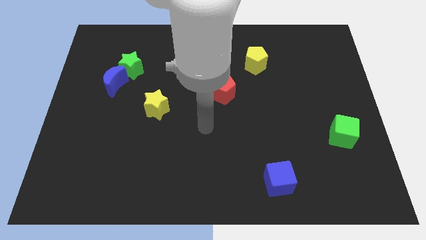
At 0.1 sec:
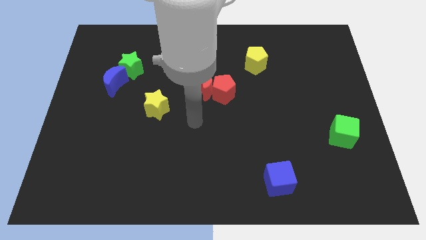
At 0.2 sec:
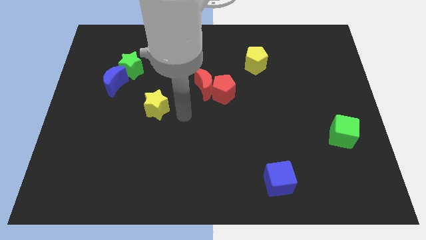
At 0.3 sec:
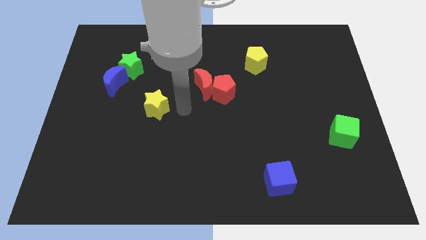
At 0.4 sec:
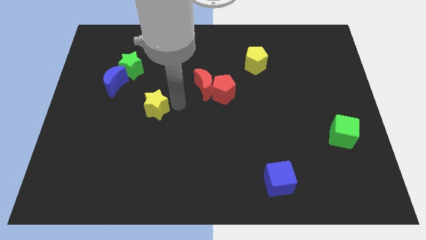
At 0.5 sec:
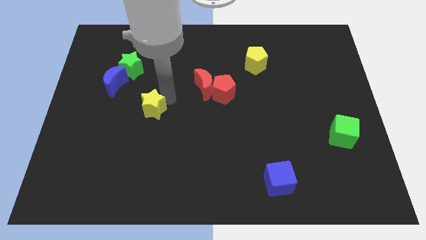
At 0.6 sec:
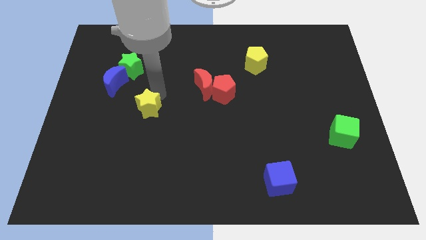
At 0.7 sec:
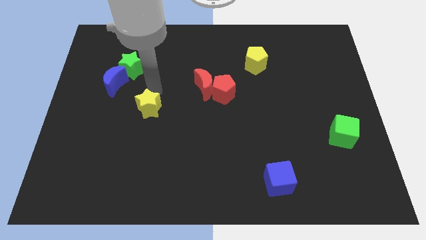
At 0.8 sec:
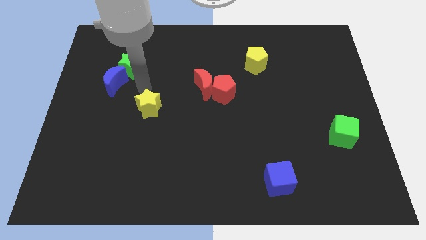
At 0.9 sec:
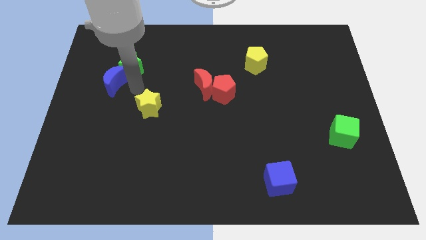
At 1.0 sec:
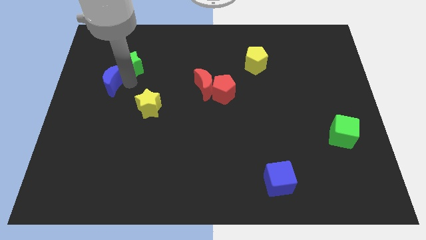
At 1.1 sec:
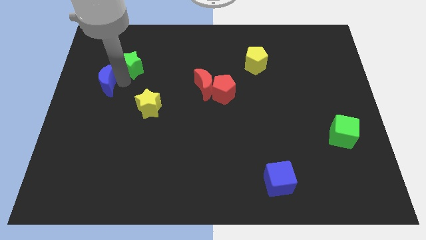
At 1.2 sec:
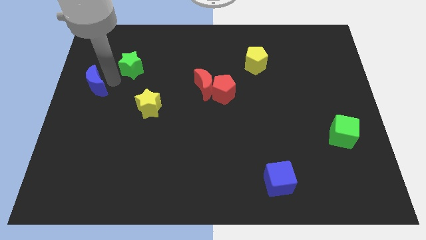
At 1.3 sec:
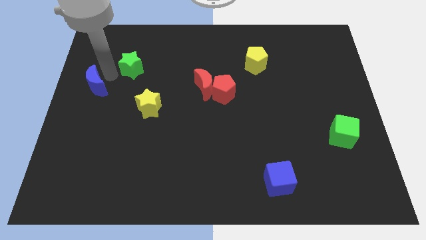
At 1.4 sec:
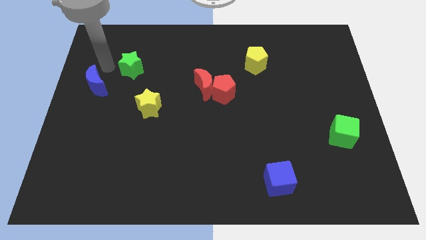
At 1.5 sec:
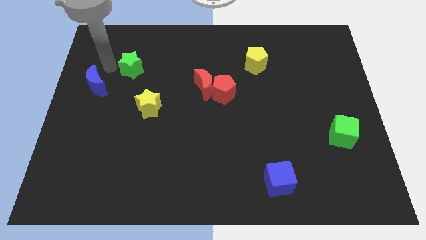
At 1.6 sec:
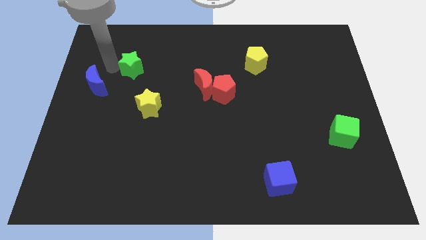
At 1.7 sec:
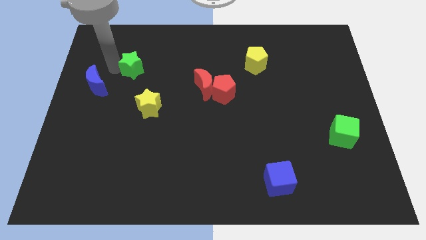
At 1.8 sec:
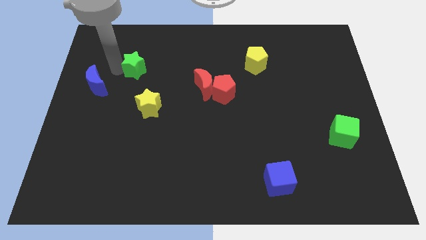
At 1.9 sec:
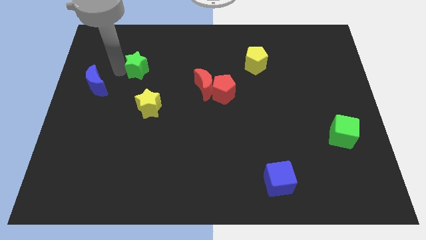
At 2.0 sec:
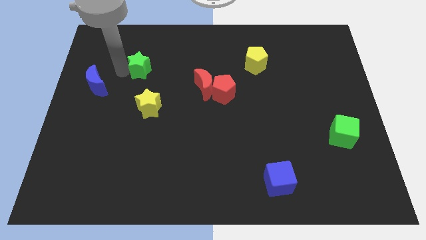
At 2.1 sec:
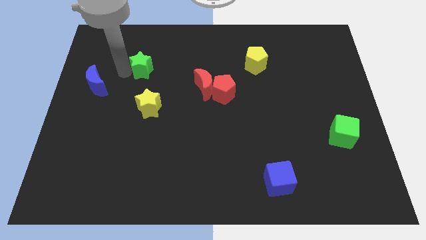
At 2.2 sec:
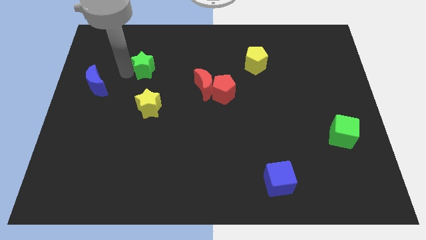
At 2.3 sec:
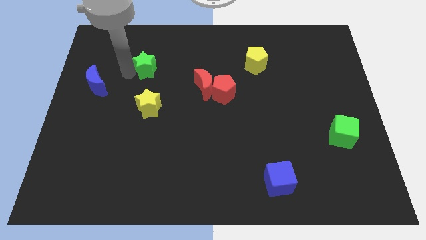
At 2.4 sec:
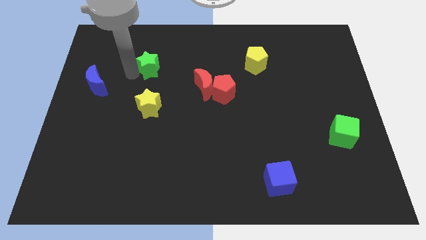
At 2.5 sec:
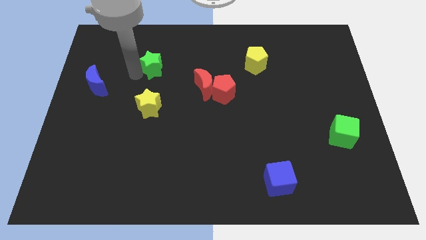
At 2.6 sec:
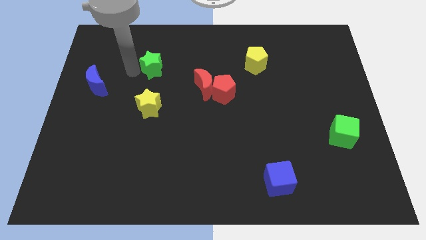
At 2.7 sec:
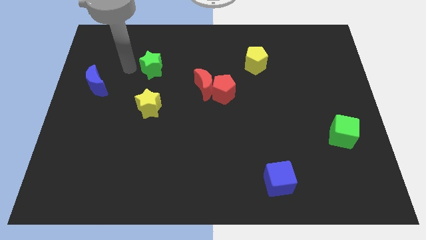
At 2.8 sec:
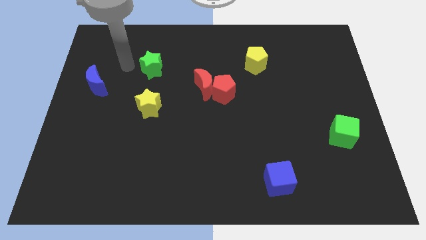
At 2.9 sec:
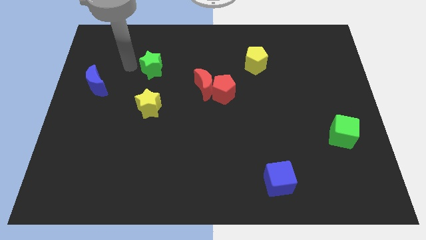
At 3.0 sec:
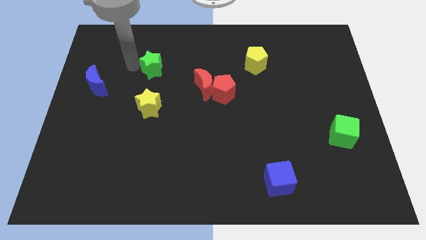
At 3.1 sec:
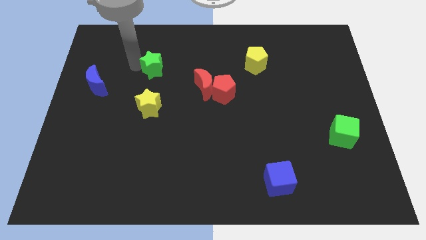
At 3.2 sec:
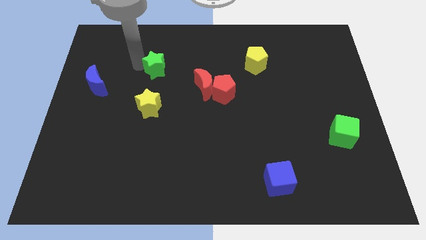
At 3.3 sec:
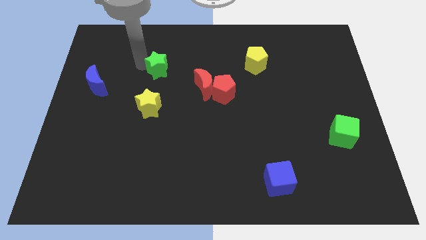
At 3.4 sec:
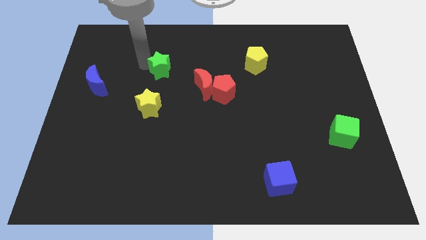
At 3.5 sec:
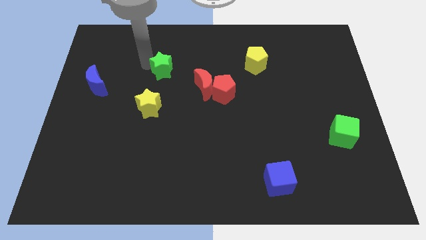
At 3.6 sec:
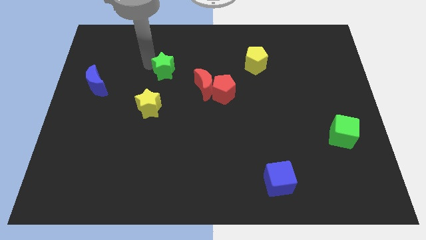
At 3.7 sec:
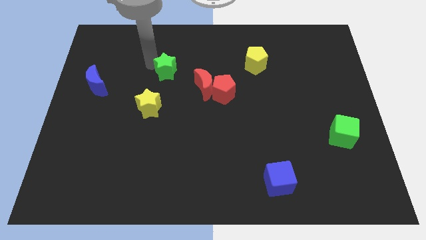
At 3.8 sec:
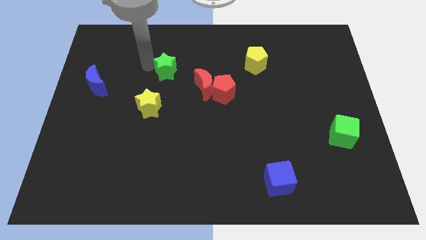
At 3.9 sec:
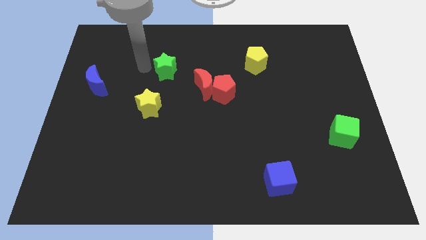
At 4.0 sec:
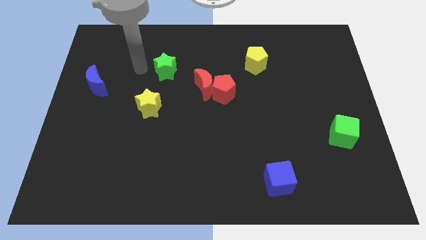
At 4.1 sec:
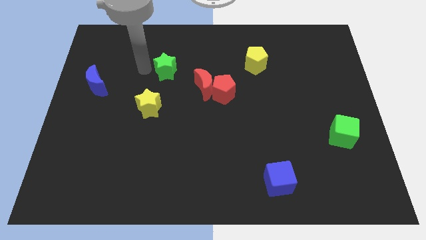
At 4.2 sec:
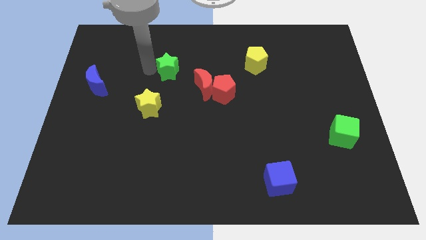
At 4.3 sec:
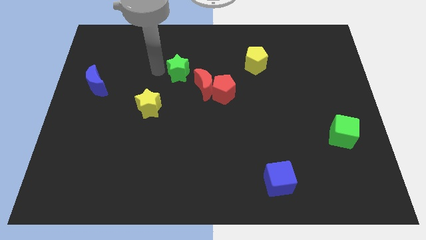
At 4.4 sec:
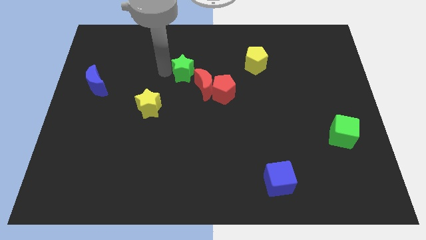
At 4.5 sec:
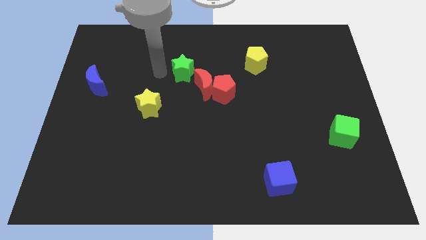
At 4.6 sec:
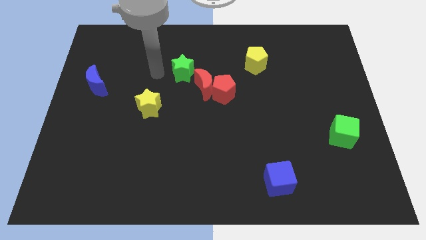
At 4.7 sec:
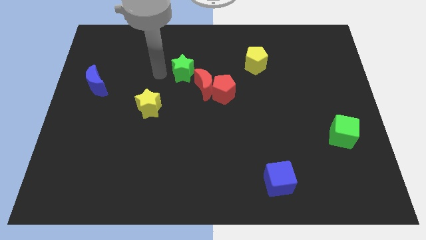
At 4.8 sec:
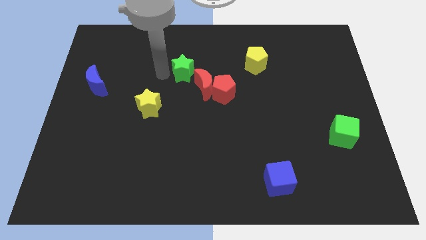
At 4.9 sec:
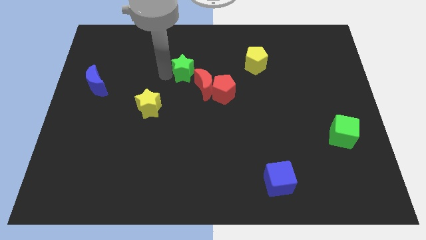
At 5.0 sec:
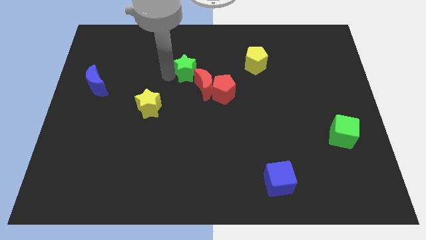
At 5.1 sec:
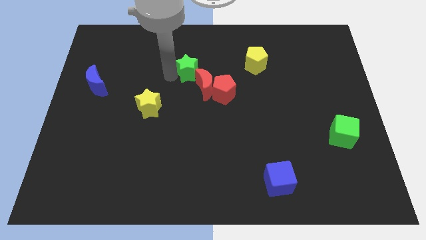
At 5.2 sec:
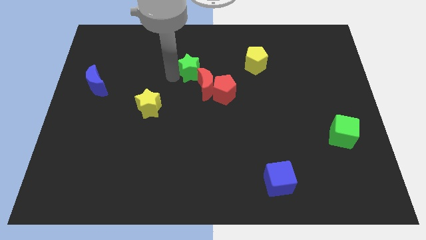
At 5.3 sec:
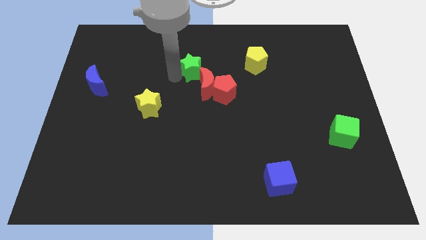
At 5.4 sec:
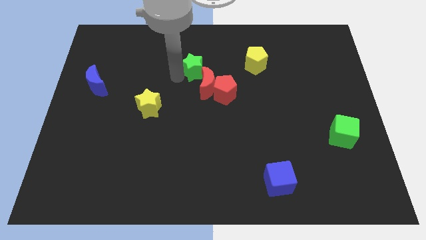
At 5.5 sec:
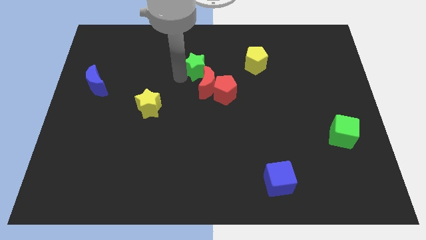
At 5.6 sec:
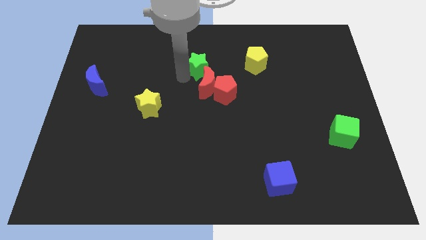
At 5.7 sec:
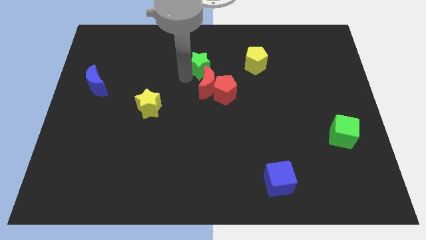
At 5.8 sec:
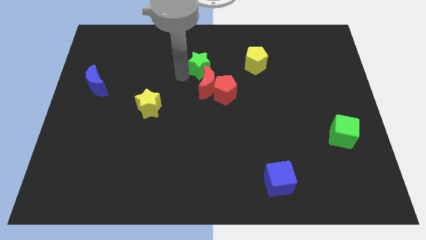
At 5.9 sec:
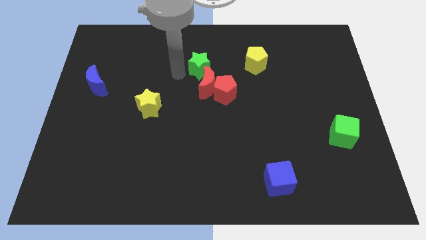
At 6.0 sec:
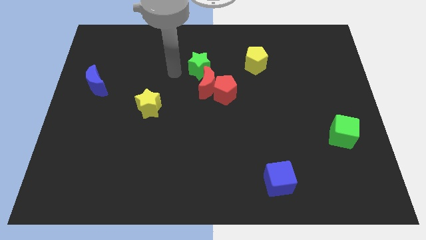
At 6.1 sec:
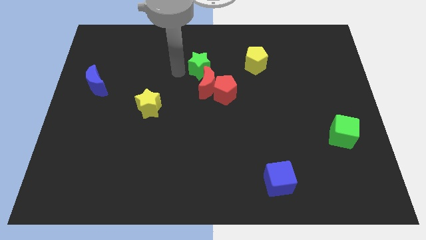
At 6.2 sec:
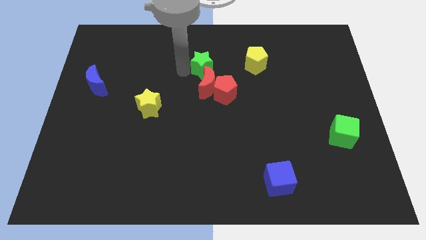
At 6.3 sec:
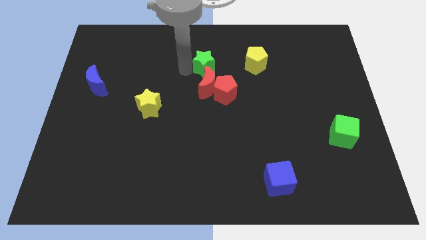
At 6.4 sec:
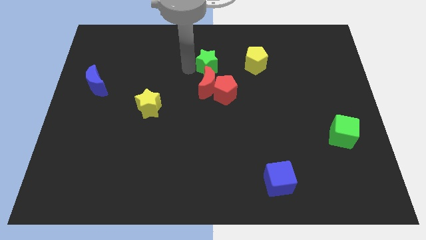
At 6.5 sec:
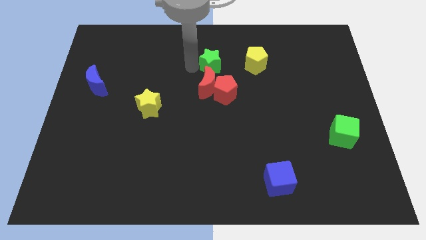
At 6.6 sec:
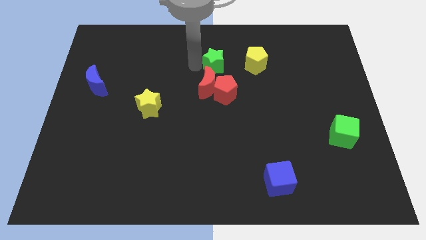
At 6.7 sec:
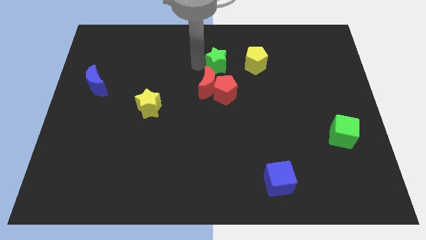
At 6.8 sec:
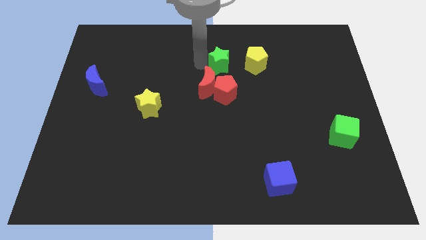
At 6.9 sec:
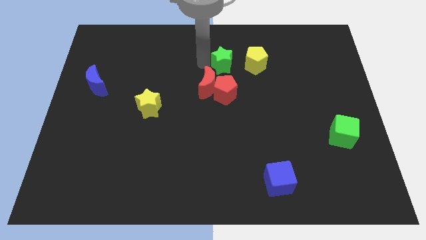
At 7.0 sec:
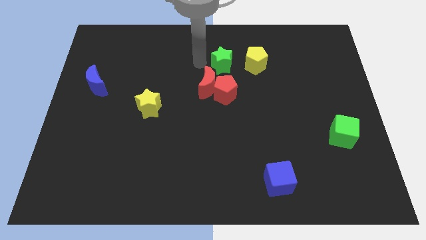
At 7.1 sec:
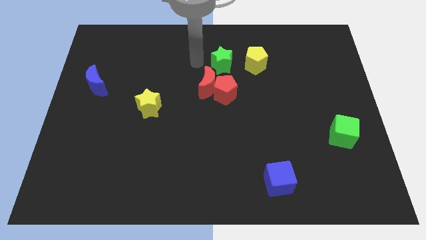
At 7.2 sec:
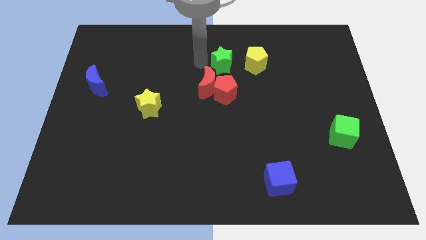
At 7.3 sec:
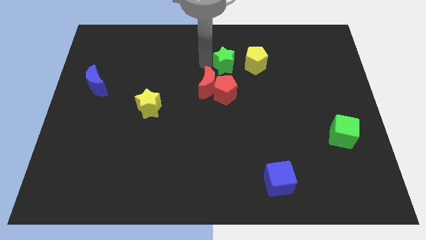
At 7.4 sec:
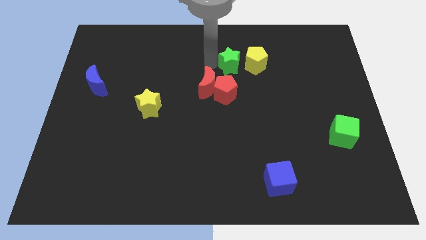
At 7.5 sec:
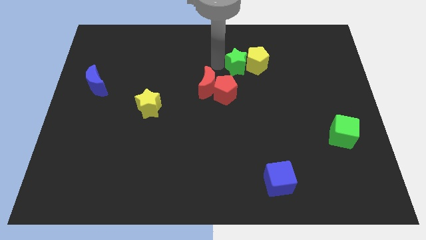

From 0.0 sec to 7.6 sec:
put the green star close to the yellow pentagon
